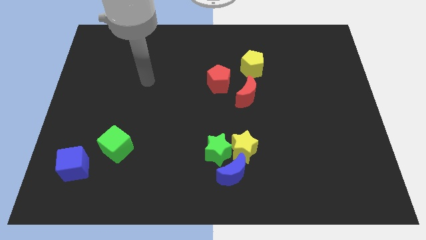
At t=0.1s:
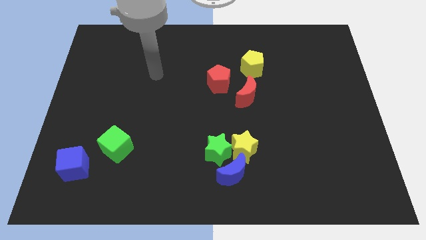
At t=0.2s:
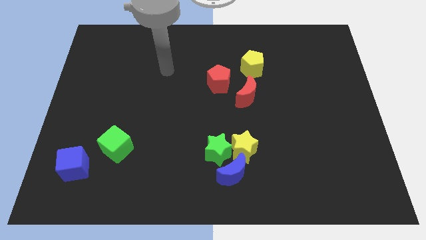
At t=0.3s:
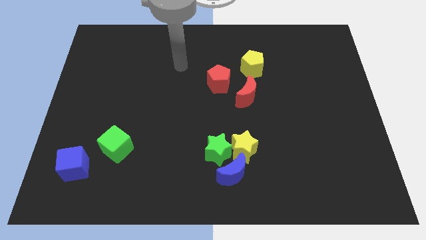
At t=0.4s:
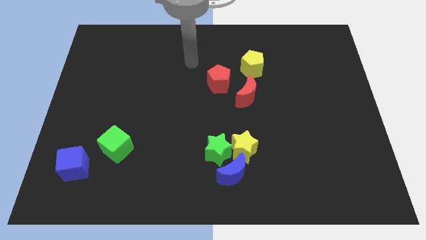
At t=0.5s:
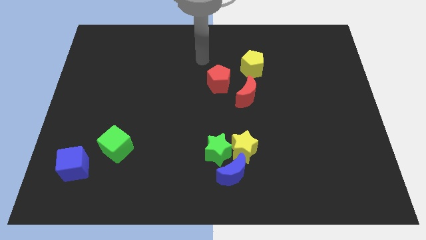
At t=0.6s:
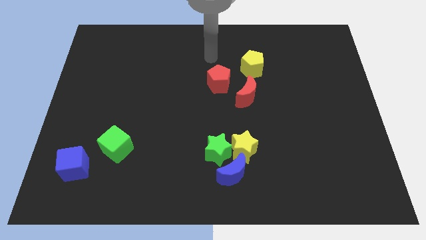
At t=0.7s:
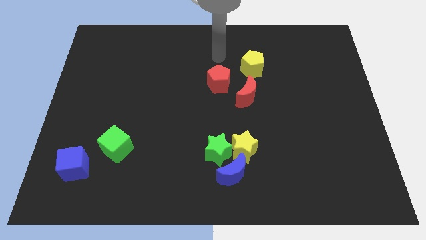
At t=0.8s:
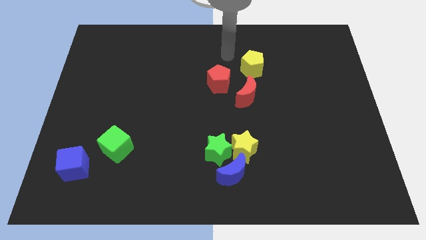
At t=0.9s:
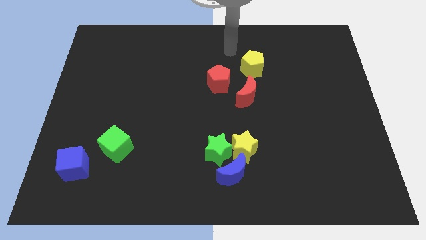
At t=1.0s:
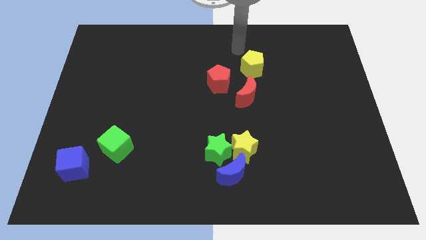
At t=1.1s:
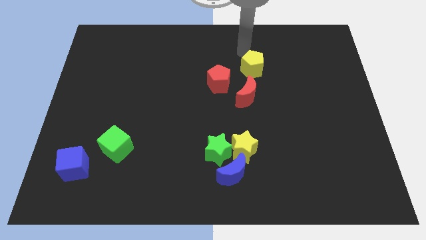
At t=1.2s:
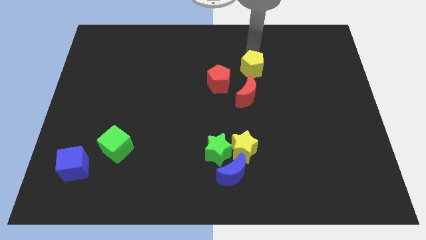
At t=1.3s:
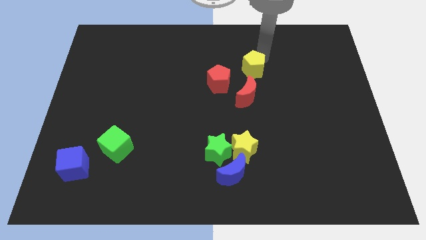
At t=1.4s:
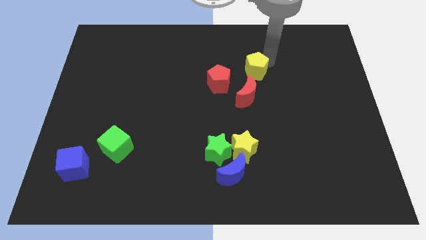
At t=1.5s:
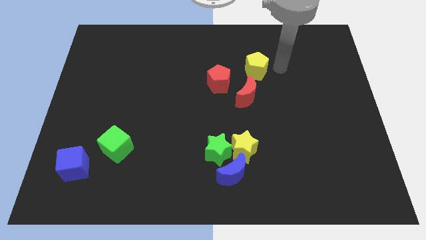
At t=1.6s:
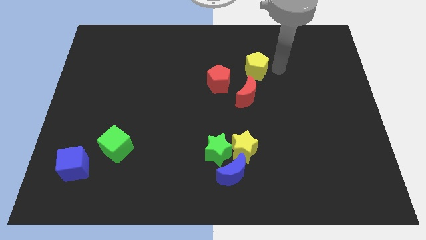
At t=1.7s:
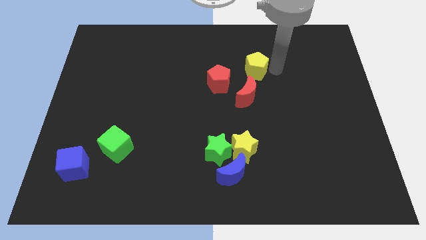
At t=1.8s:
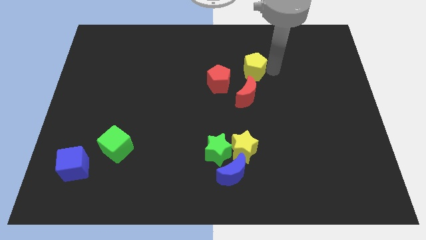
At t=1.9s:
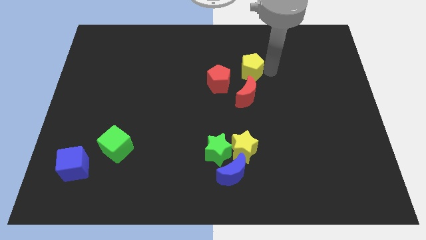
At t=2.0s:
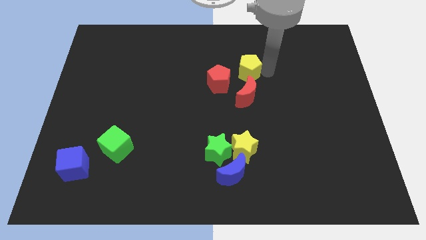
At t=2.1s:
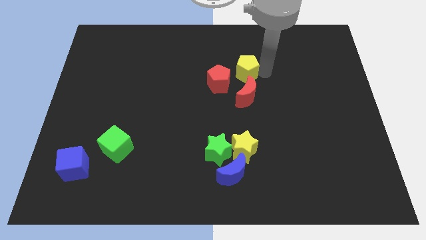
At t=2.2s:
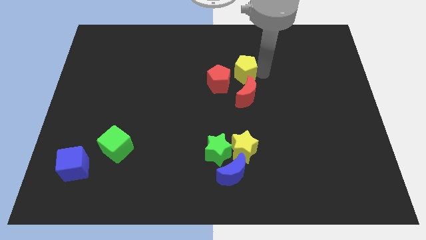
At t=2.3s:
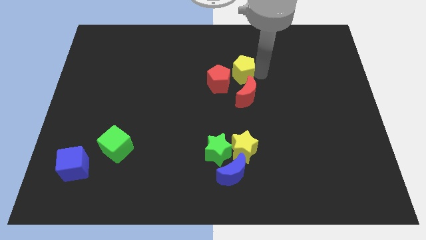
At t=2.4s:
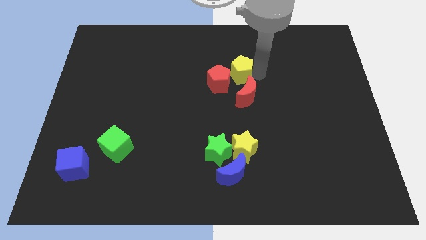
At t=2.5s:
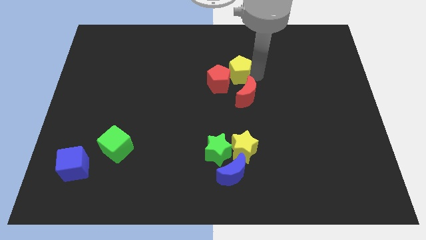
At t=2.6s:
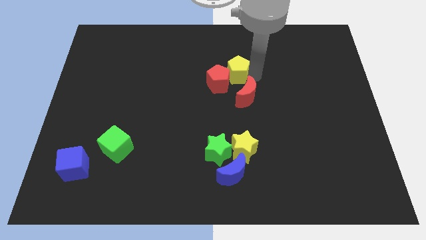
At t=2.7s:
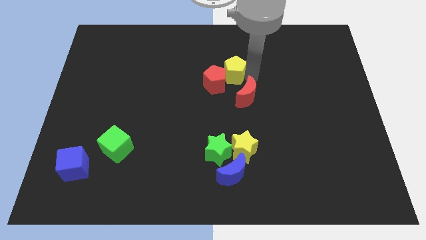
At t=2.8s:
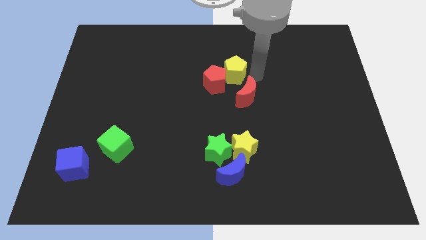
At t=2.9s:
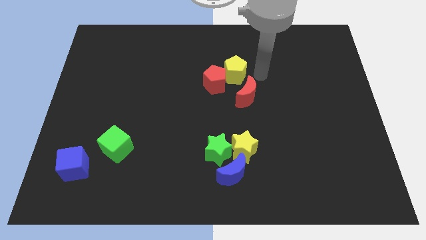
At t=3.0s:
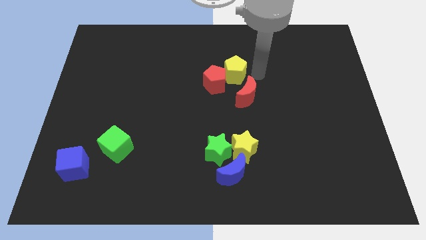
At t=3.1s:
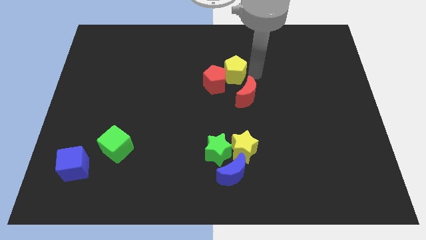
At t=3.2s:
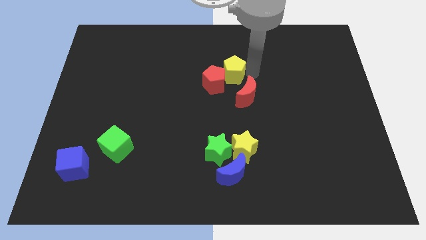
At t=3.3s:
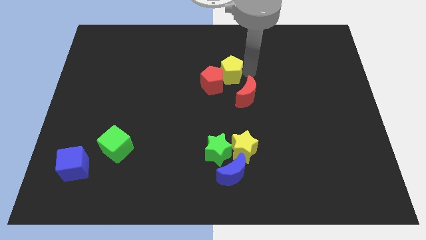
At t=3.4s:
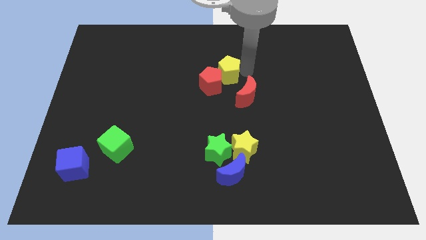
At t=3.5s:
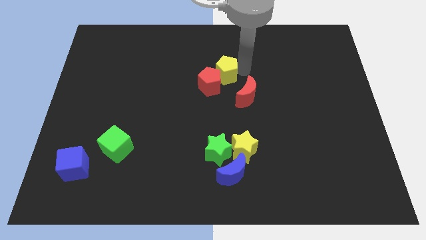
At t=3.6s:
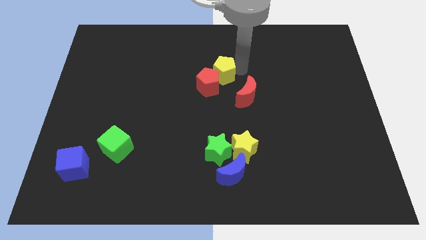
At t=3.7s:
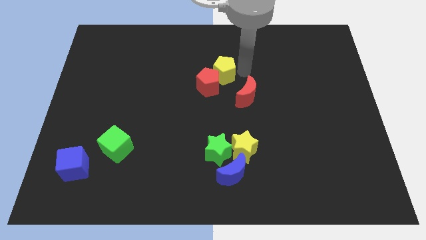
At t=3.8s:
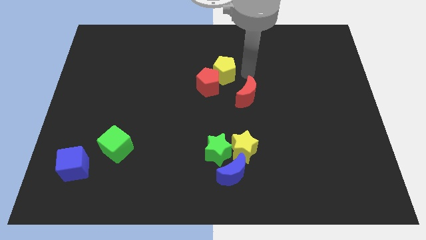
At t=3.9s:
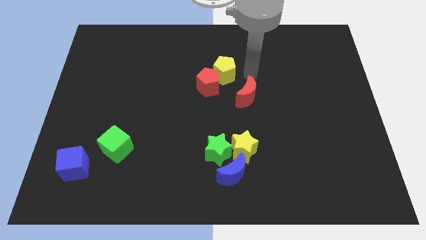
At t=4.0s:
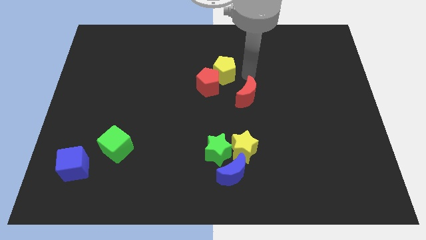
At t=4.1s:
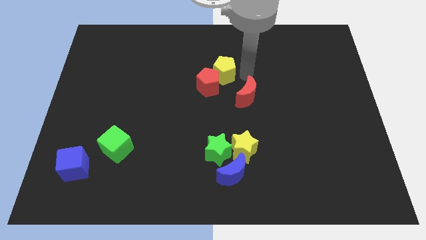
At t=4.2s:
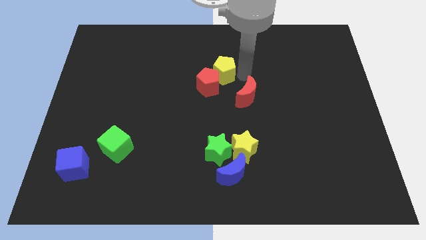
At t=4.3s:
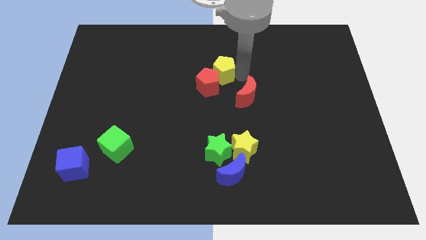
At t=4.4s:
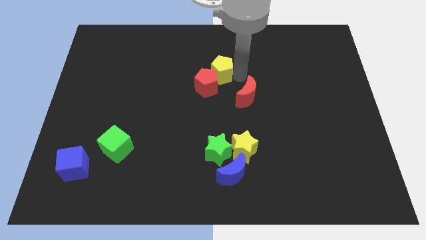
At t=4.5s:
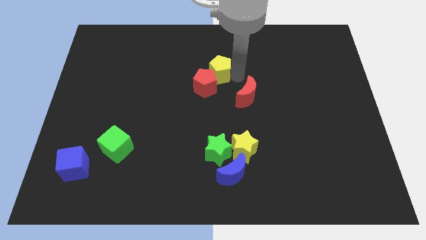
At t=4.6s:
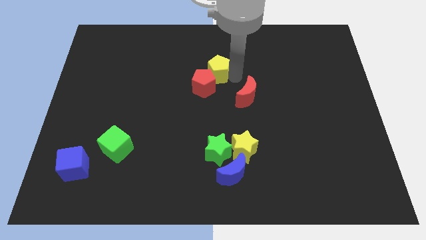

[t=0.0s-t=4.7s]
slide the yellow pentagon a bit diagonally down and left

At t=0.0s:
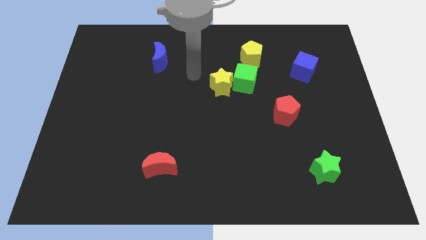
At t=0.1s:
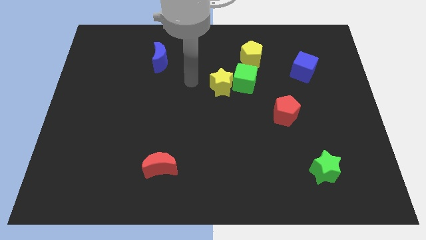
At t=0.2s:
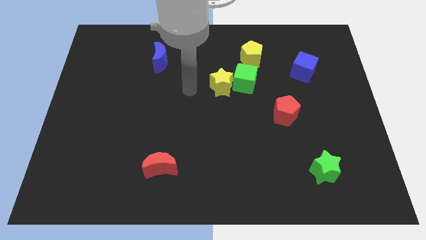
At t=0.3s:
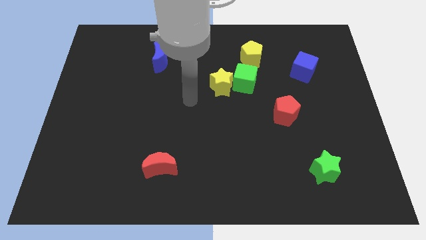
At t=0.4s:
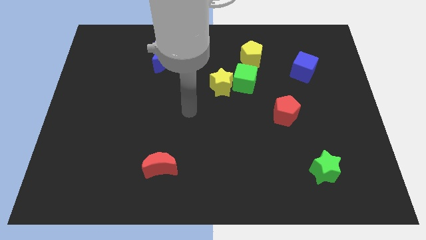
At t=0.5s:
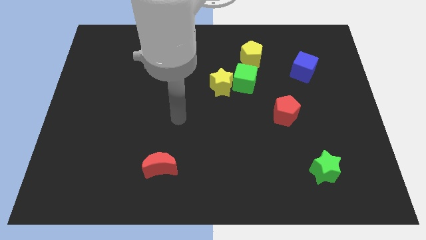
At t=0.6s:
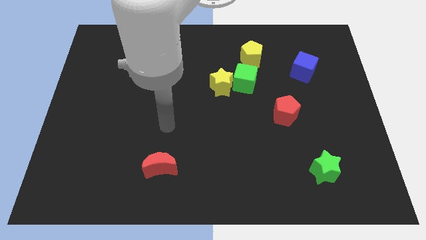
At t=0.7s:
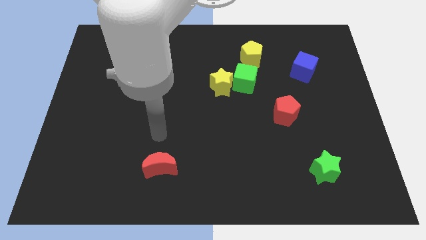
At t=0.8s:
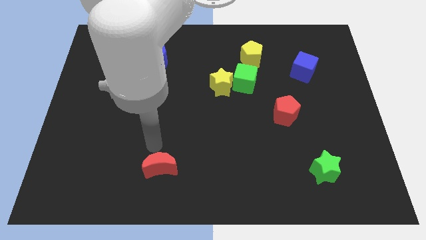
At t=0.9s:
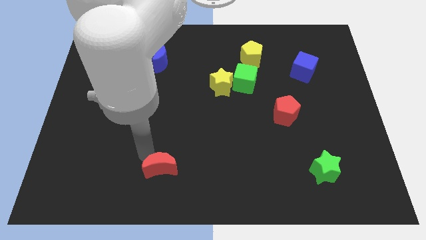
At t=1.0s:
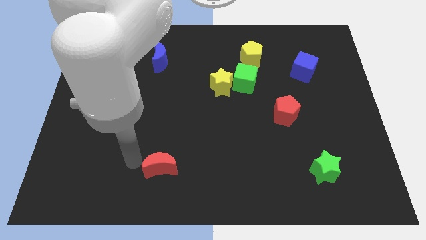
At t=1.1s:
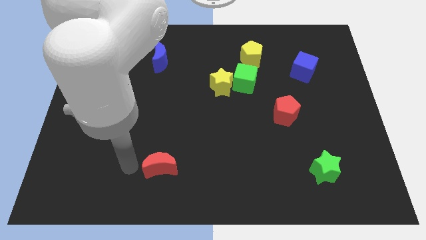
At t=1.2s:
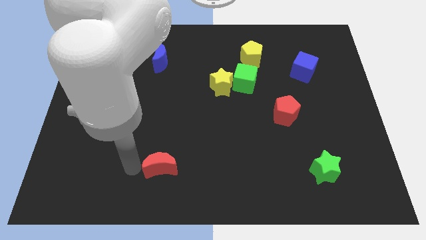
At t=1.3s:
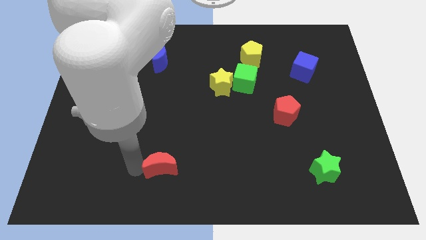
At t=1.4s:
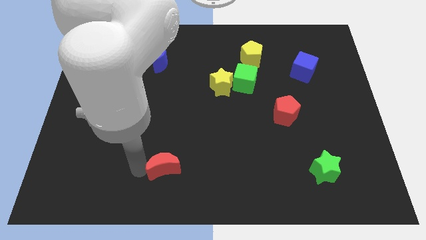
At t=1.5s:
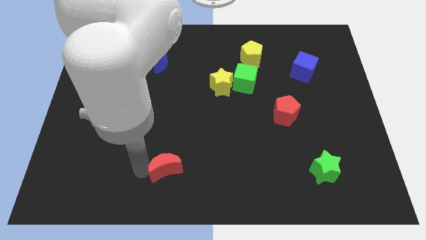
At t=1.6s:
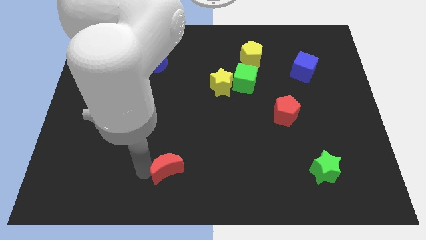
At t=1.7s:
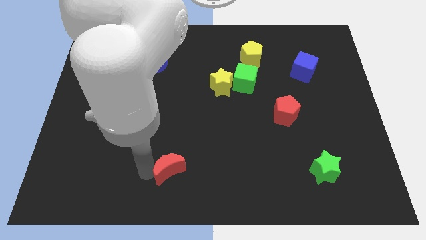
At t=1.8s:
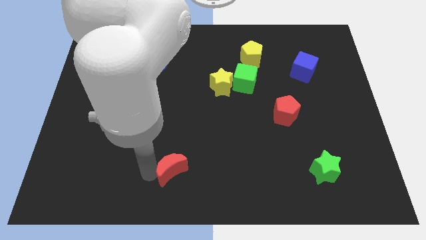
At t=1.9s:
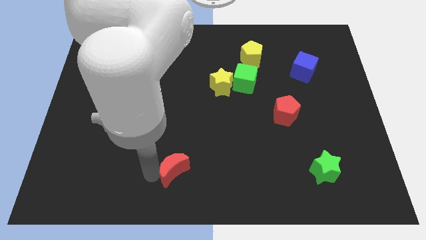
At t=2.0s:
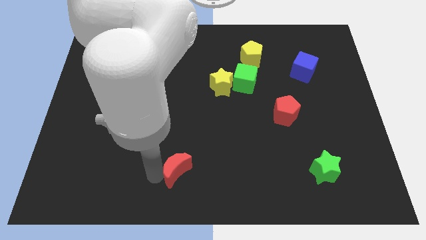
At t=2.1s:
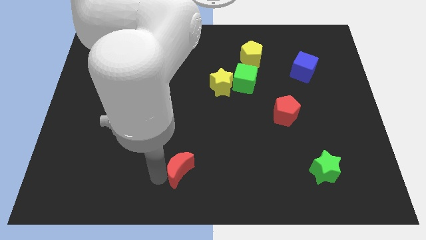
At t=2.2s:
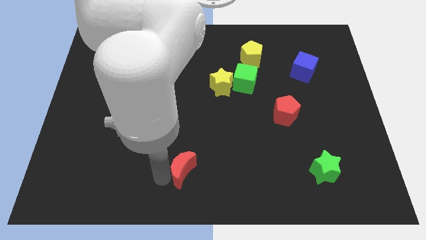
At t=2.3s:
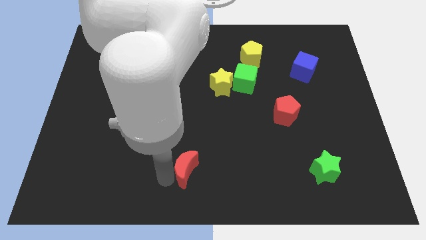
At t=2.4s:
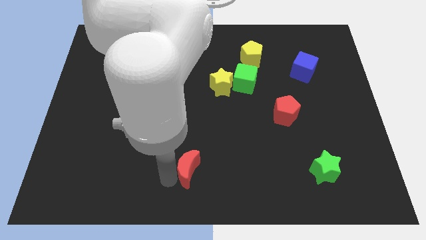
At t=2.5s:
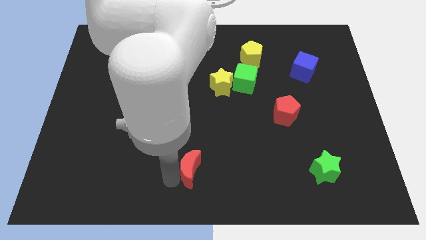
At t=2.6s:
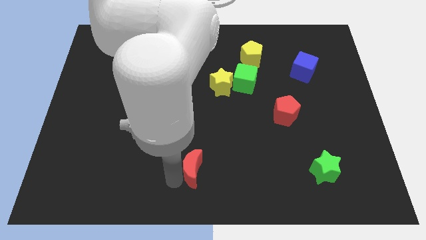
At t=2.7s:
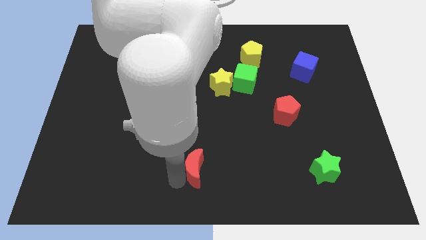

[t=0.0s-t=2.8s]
push the red moon right slightly

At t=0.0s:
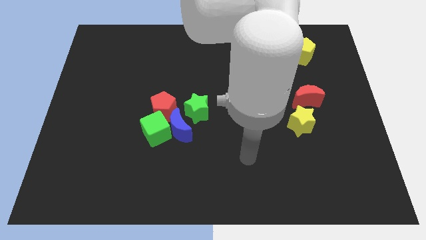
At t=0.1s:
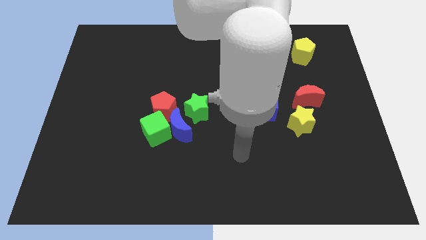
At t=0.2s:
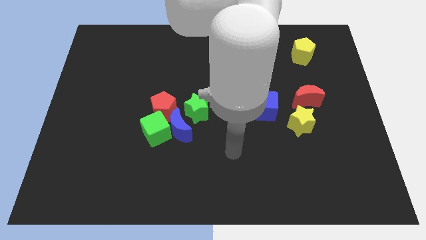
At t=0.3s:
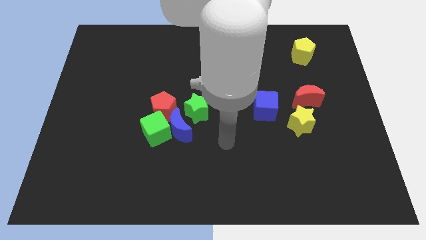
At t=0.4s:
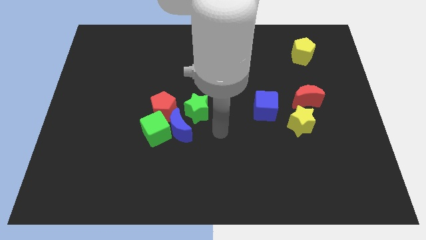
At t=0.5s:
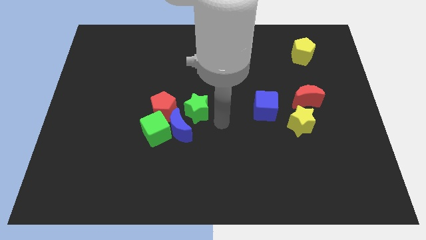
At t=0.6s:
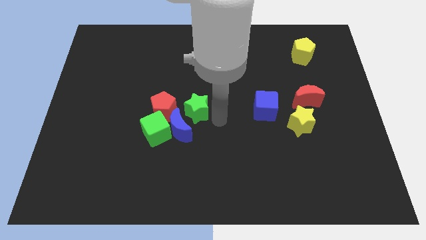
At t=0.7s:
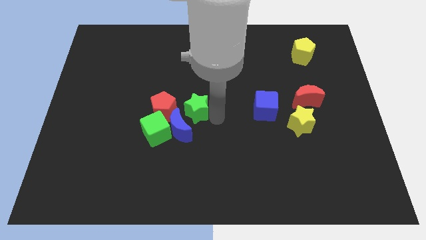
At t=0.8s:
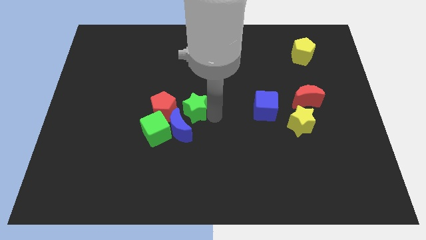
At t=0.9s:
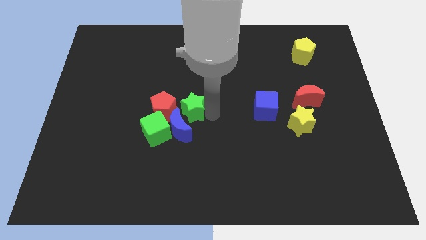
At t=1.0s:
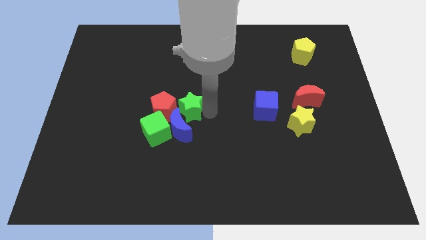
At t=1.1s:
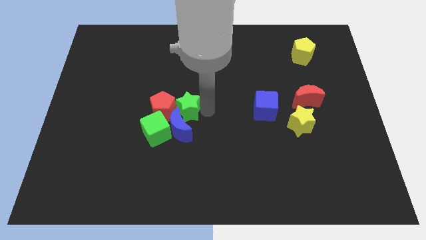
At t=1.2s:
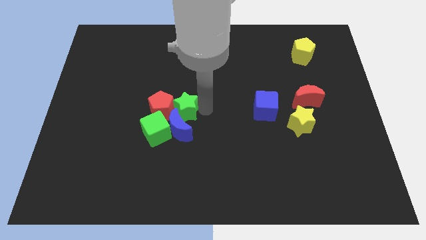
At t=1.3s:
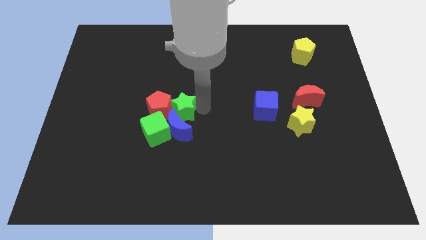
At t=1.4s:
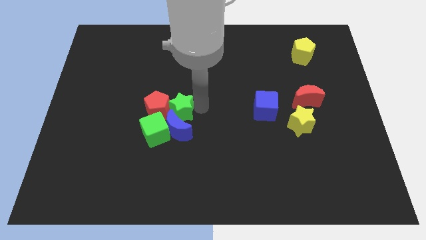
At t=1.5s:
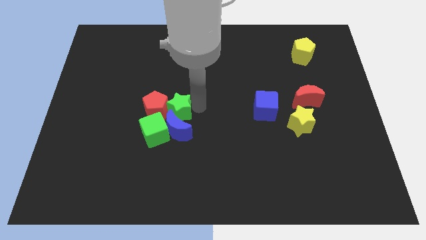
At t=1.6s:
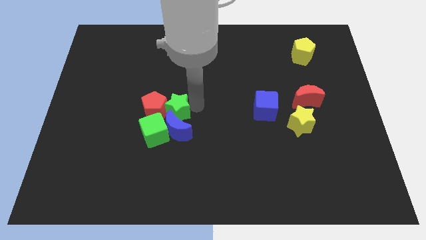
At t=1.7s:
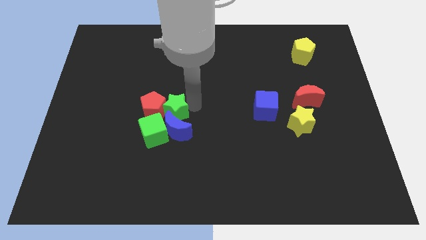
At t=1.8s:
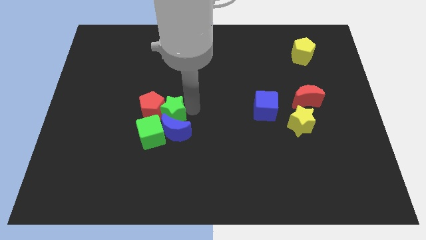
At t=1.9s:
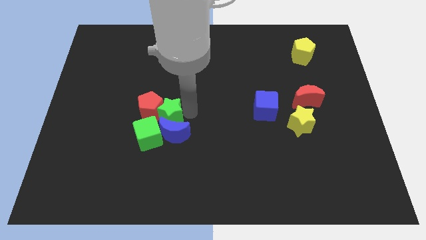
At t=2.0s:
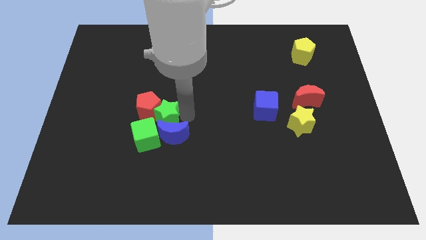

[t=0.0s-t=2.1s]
slide the green star somewhat left
